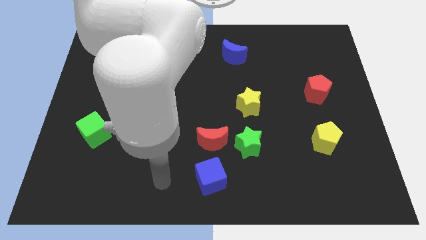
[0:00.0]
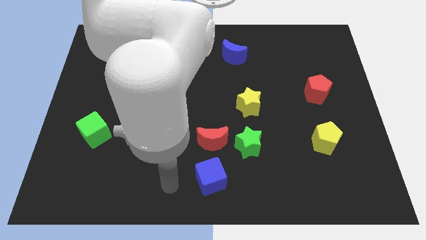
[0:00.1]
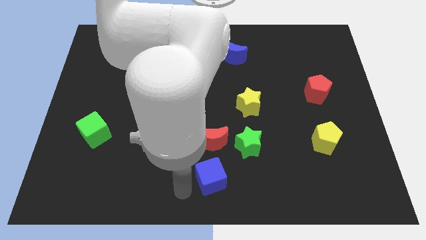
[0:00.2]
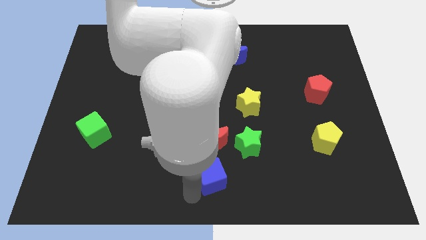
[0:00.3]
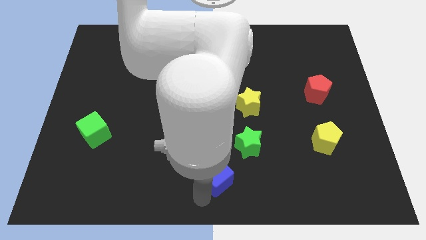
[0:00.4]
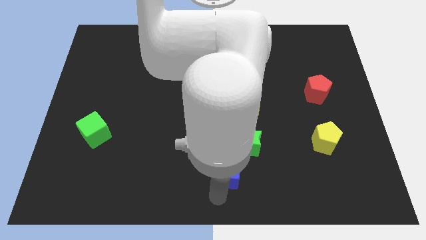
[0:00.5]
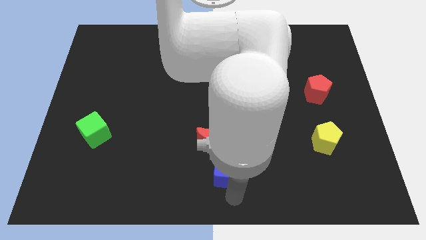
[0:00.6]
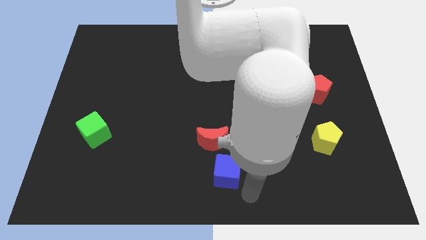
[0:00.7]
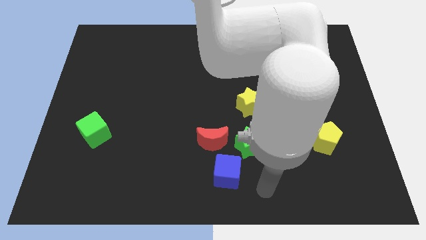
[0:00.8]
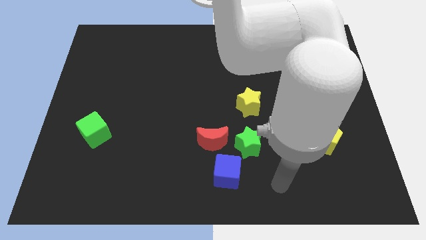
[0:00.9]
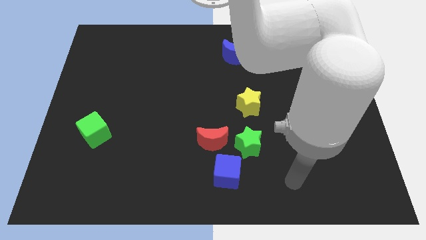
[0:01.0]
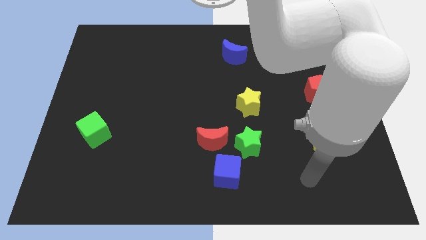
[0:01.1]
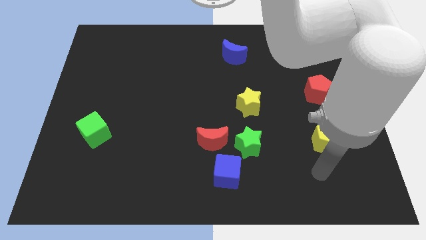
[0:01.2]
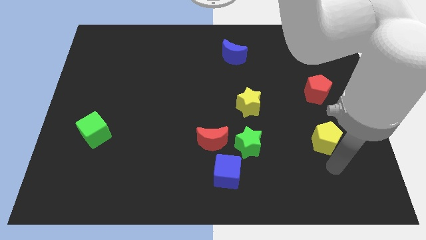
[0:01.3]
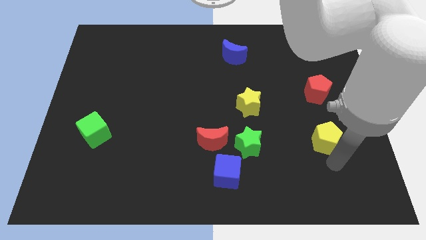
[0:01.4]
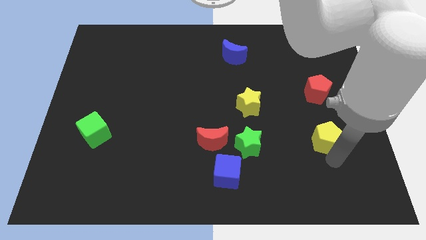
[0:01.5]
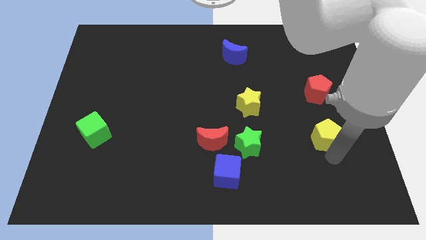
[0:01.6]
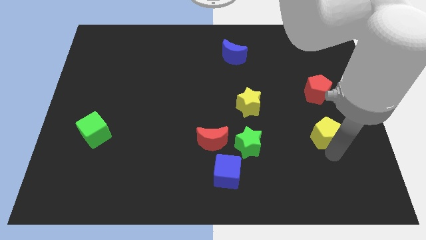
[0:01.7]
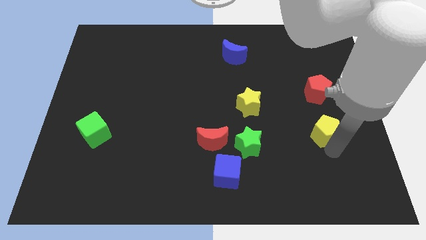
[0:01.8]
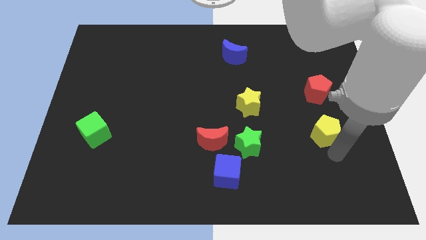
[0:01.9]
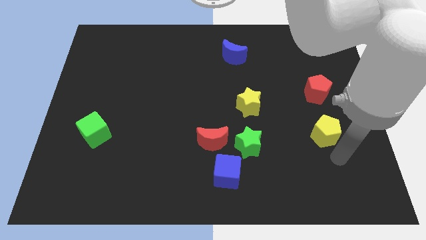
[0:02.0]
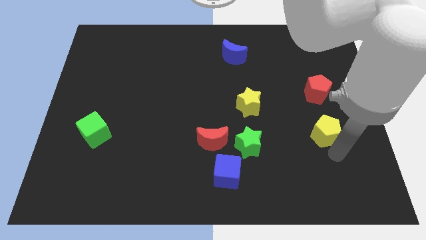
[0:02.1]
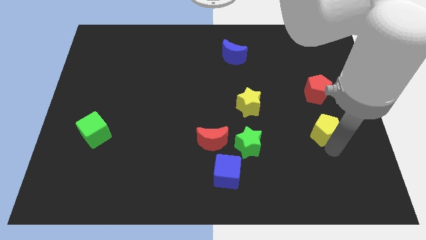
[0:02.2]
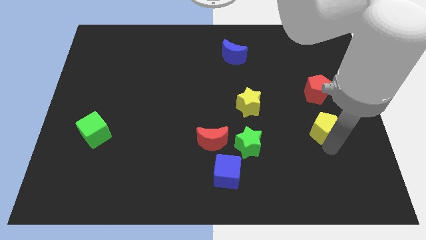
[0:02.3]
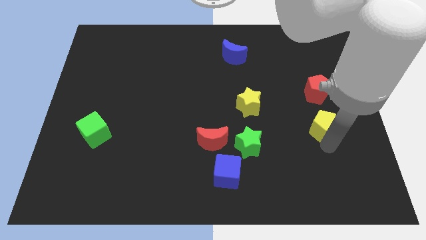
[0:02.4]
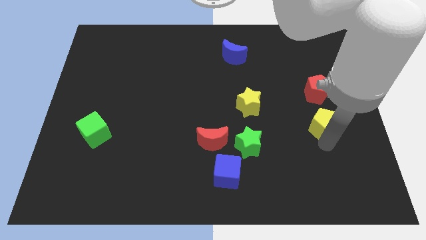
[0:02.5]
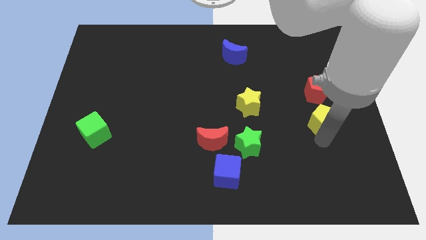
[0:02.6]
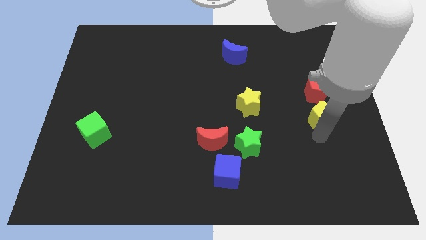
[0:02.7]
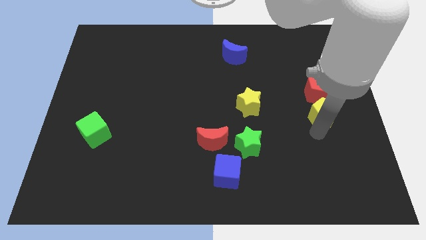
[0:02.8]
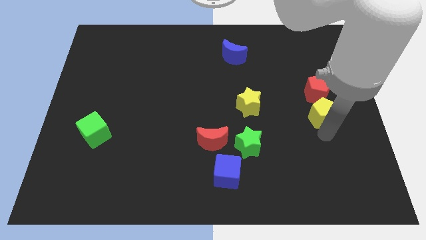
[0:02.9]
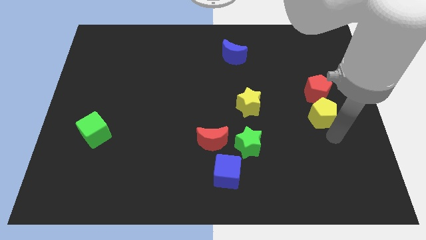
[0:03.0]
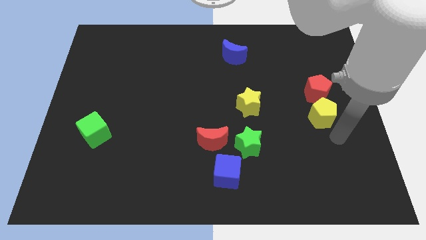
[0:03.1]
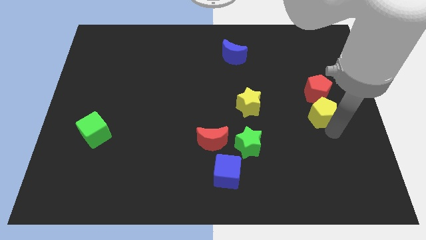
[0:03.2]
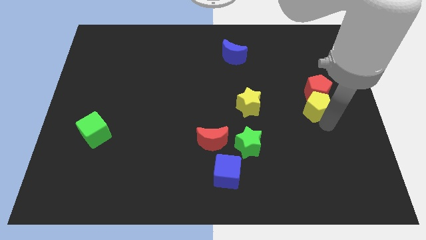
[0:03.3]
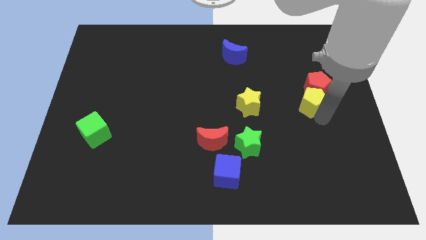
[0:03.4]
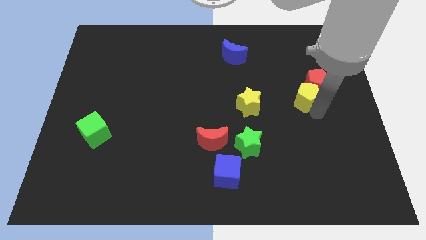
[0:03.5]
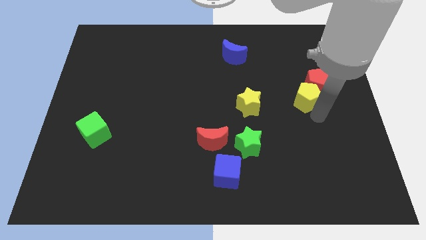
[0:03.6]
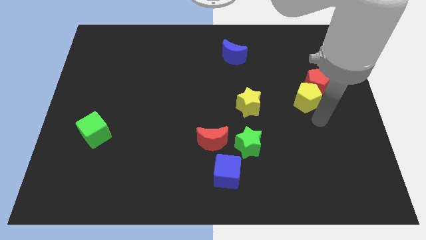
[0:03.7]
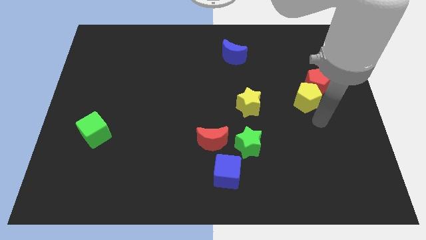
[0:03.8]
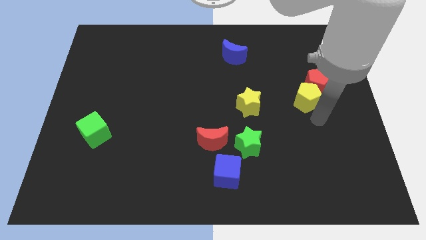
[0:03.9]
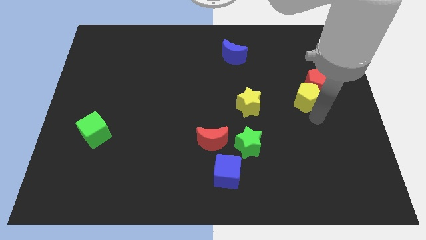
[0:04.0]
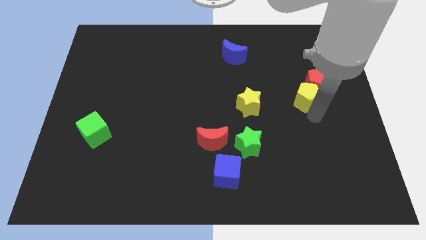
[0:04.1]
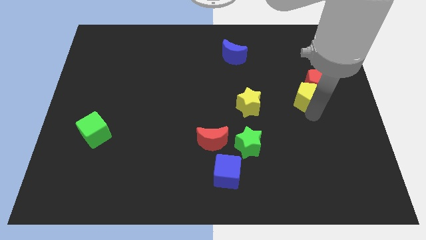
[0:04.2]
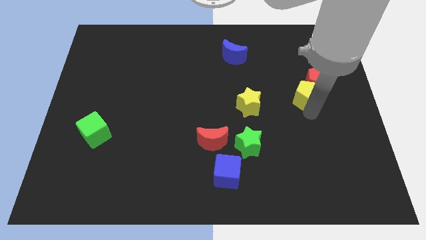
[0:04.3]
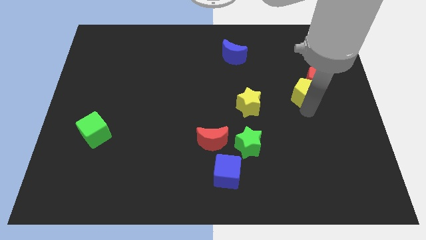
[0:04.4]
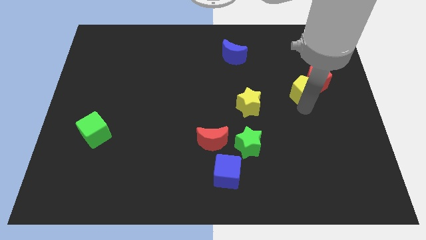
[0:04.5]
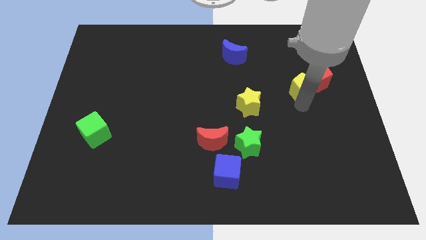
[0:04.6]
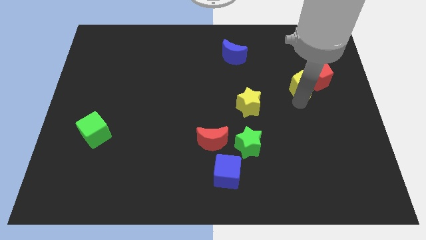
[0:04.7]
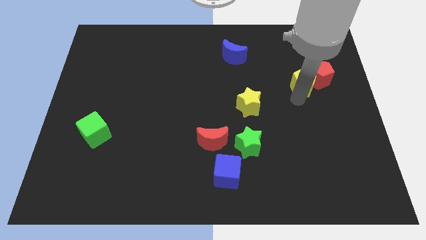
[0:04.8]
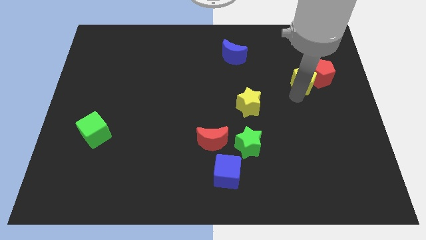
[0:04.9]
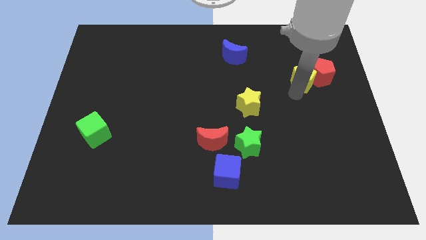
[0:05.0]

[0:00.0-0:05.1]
push the yellow pentagon to the top left of the red pentagon

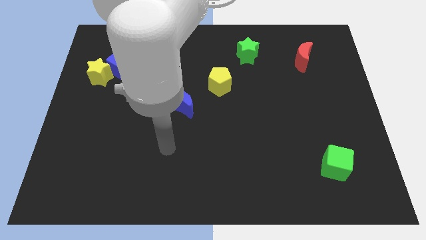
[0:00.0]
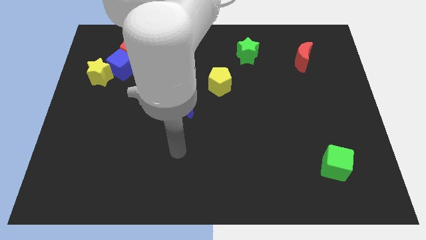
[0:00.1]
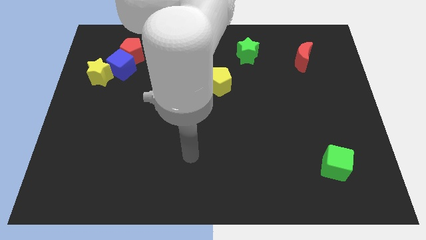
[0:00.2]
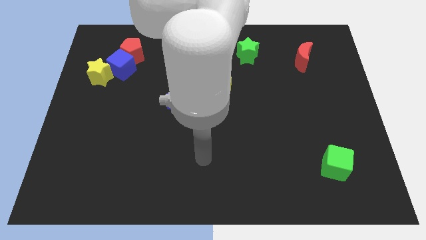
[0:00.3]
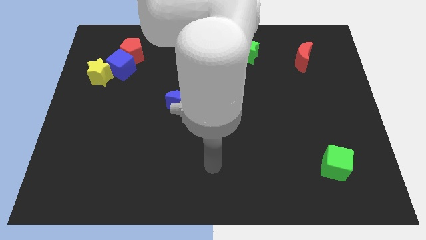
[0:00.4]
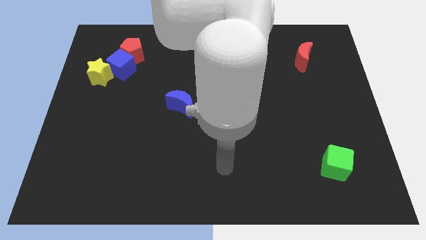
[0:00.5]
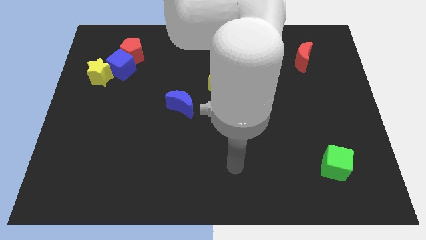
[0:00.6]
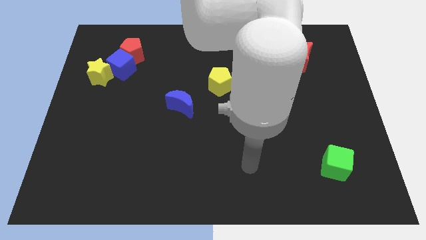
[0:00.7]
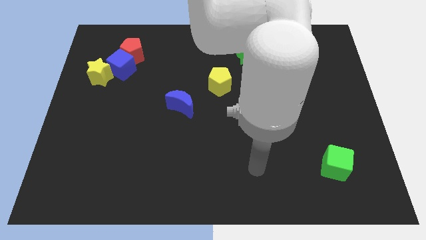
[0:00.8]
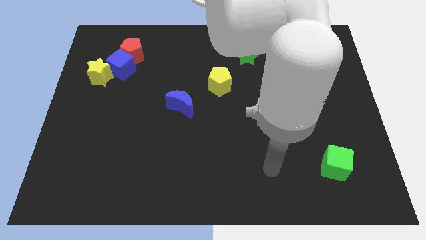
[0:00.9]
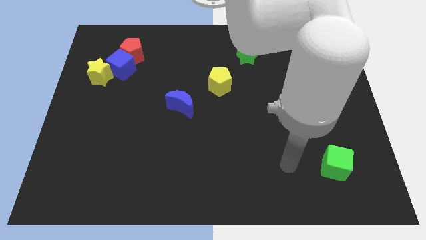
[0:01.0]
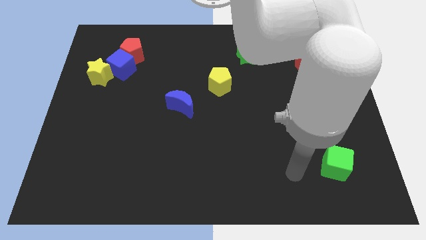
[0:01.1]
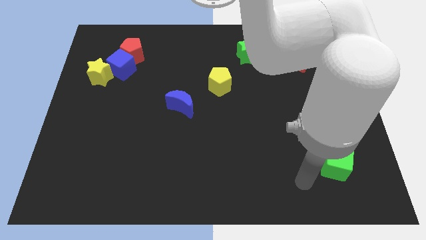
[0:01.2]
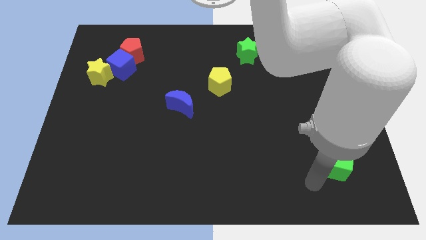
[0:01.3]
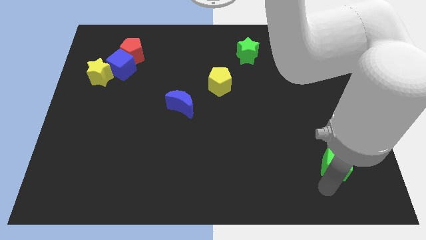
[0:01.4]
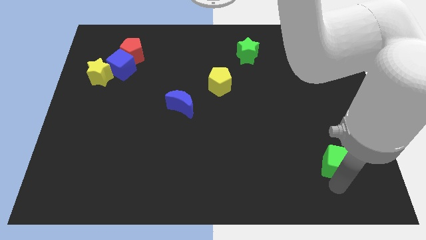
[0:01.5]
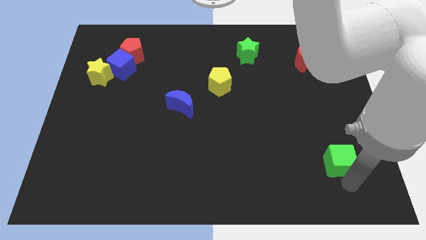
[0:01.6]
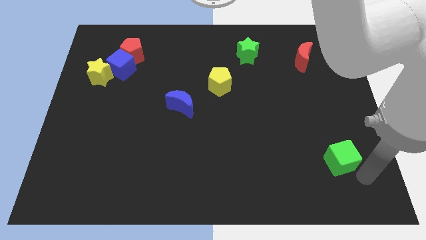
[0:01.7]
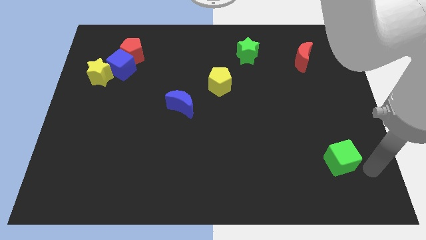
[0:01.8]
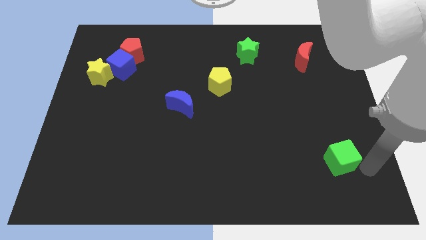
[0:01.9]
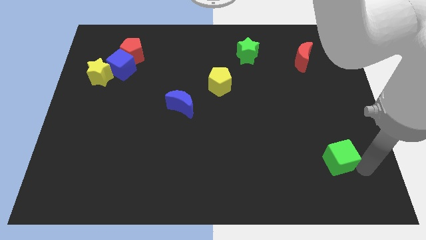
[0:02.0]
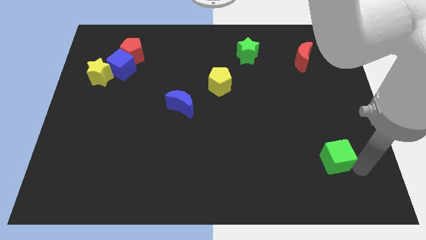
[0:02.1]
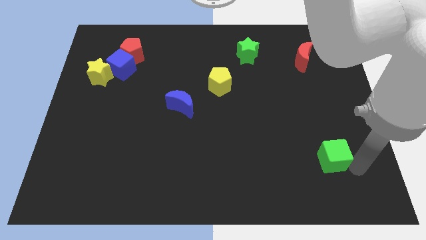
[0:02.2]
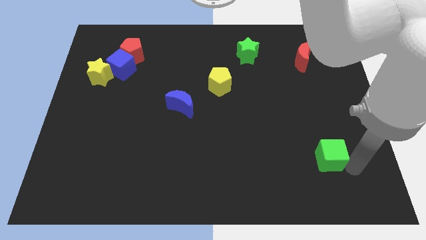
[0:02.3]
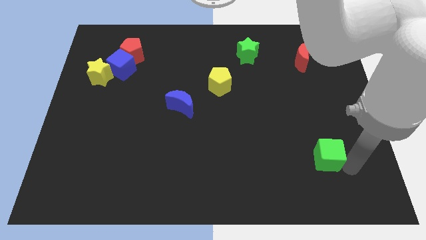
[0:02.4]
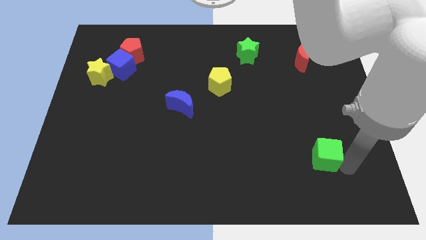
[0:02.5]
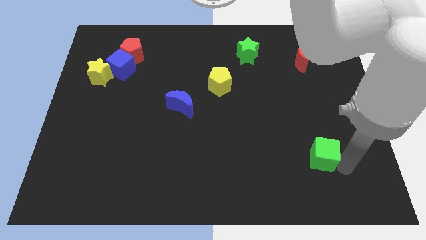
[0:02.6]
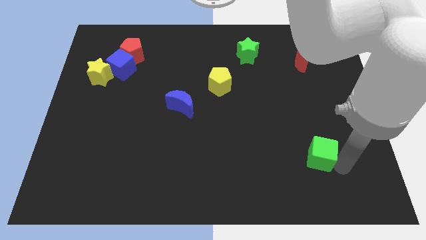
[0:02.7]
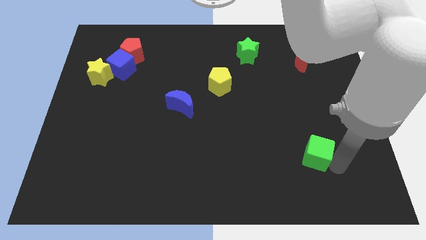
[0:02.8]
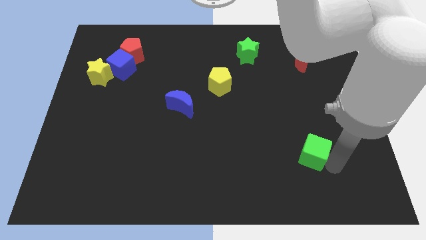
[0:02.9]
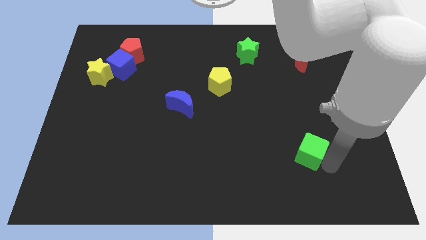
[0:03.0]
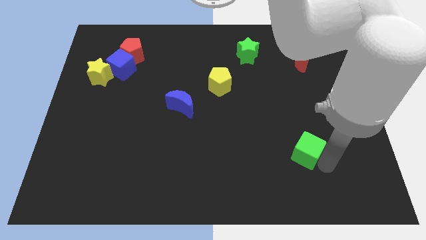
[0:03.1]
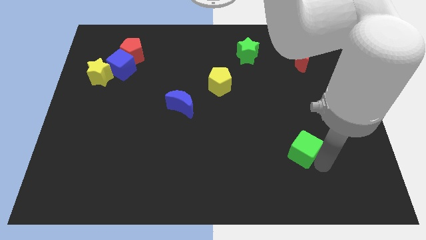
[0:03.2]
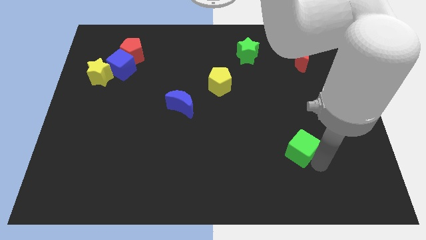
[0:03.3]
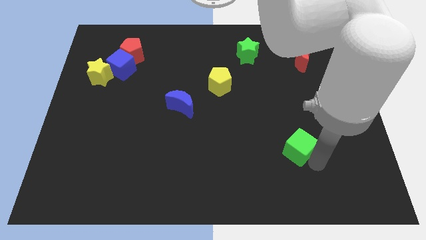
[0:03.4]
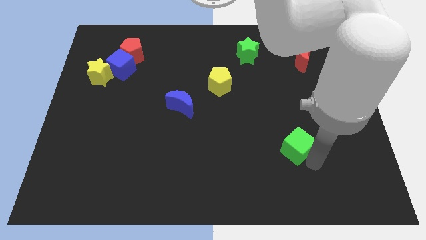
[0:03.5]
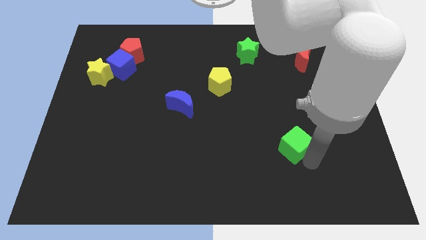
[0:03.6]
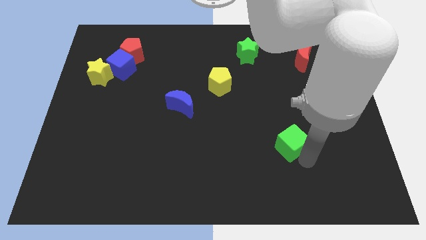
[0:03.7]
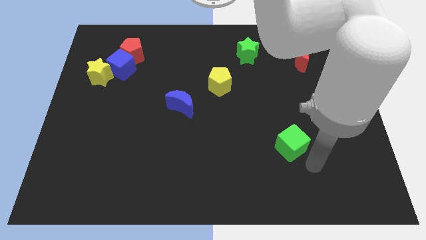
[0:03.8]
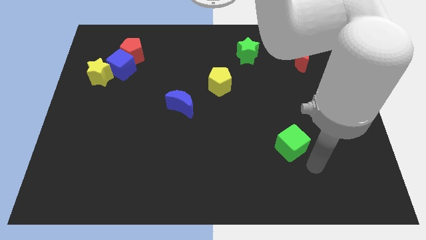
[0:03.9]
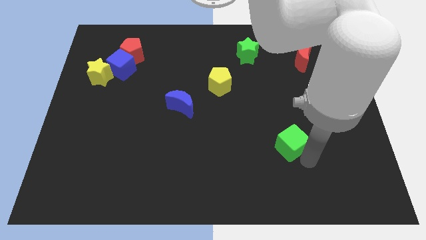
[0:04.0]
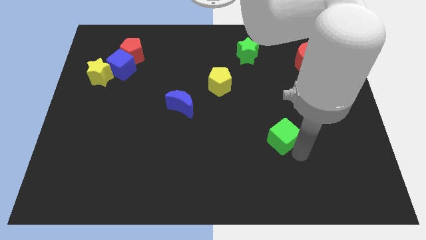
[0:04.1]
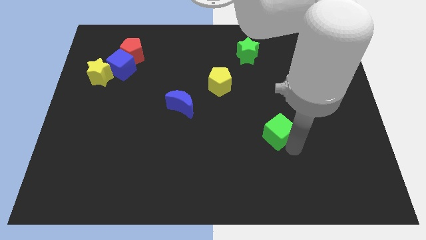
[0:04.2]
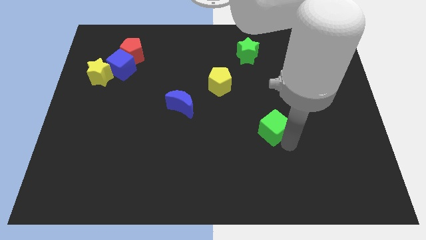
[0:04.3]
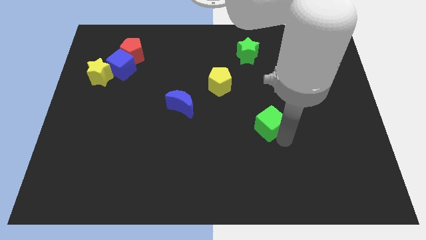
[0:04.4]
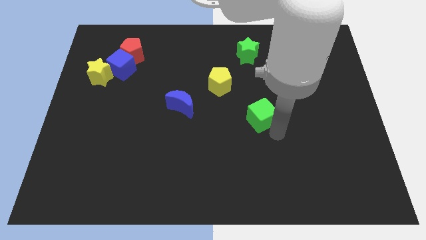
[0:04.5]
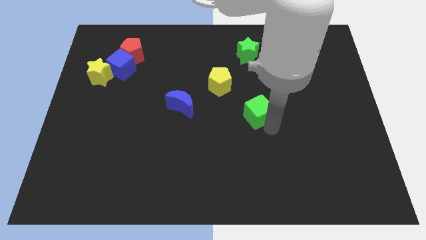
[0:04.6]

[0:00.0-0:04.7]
push the green cube to the bottom right of the yellow pentagon
